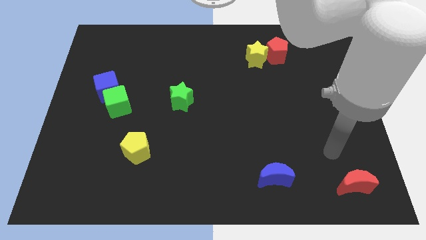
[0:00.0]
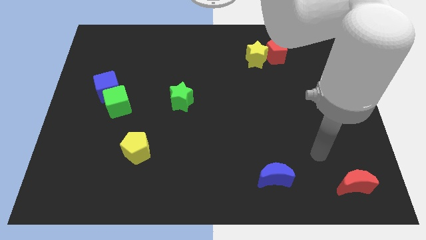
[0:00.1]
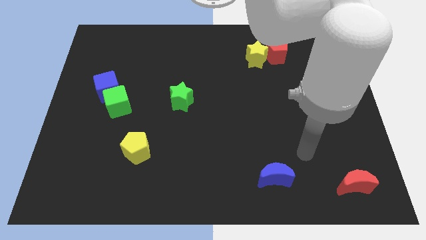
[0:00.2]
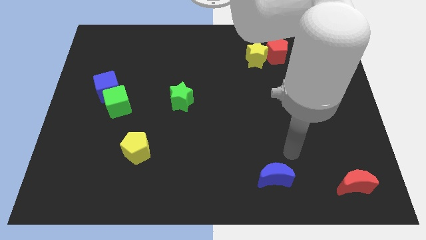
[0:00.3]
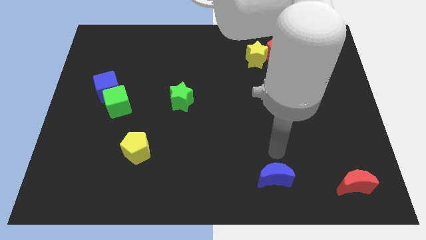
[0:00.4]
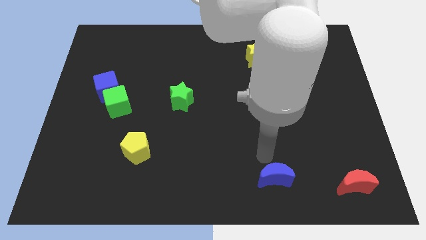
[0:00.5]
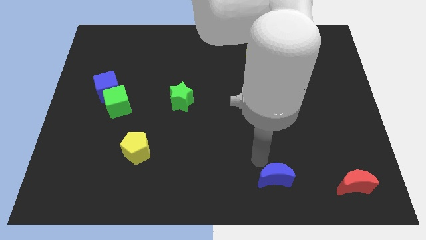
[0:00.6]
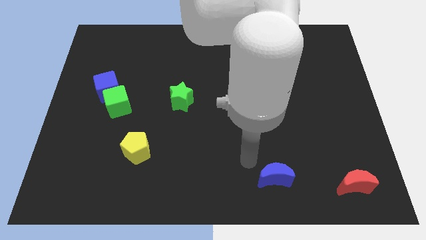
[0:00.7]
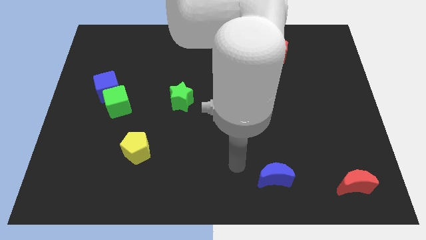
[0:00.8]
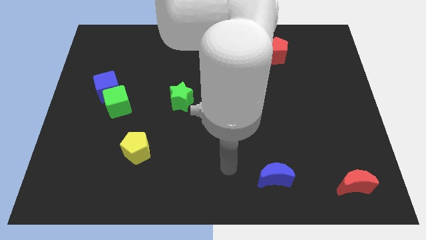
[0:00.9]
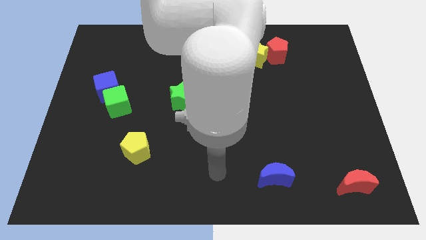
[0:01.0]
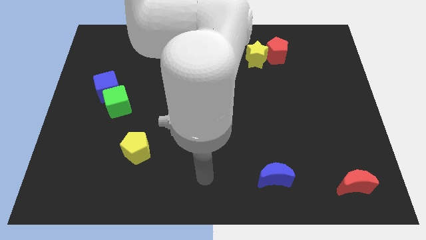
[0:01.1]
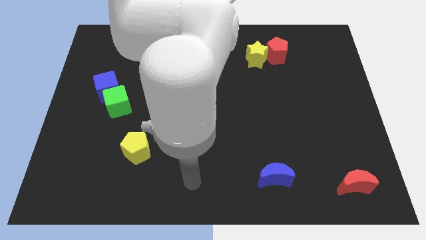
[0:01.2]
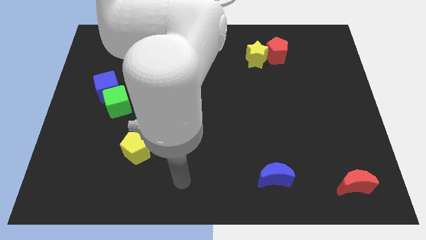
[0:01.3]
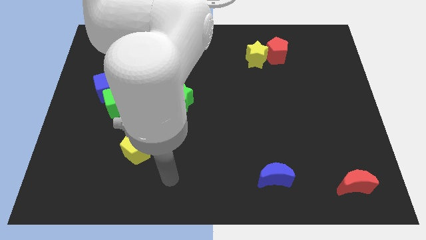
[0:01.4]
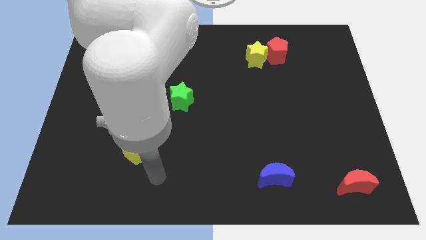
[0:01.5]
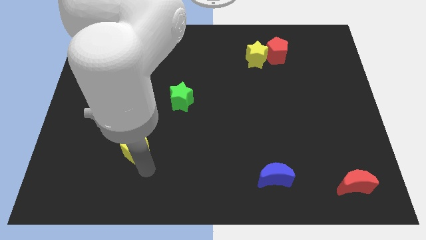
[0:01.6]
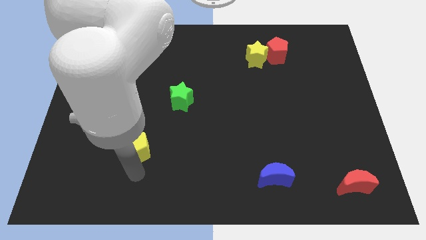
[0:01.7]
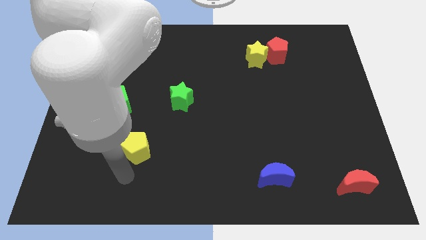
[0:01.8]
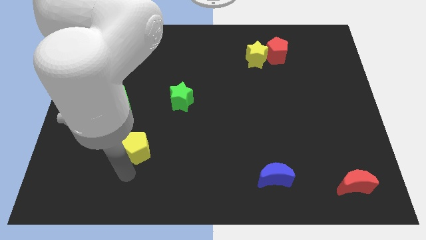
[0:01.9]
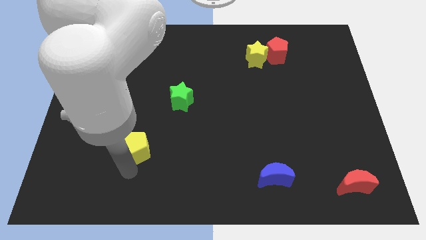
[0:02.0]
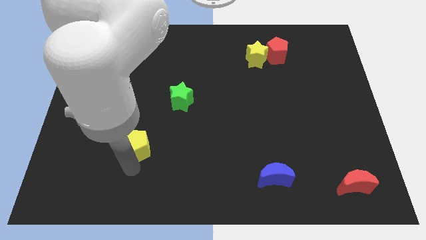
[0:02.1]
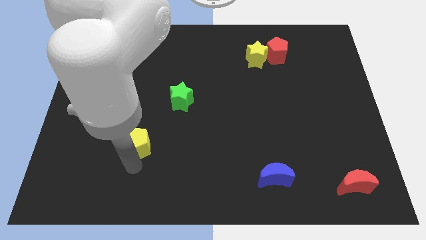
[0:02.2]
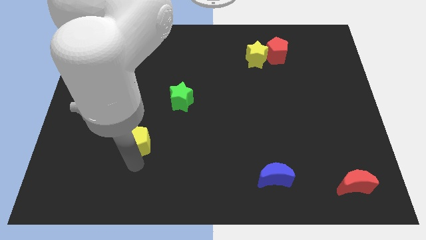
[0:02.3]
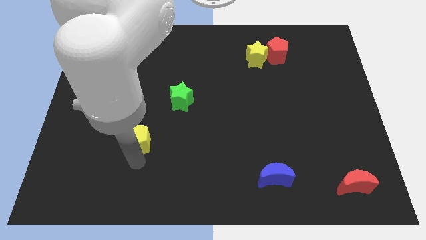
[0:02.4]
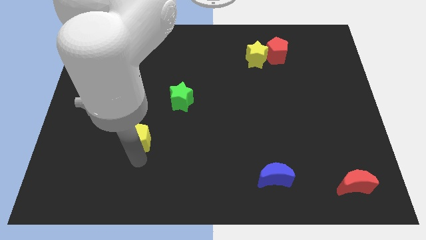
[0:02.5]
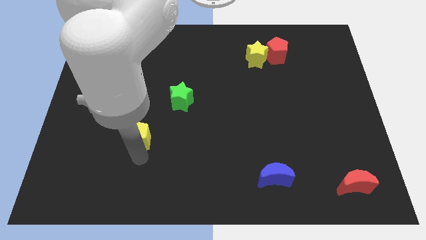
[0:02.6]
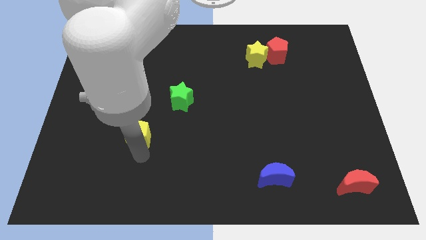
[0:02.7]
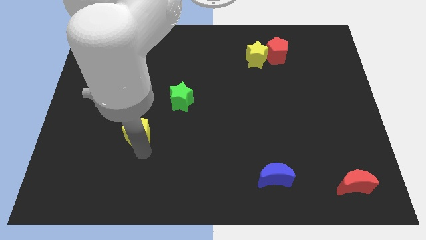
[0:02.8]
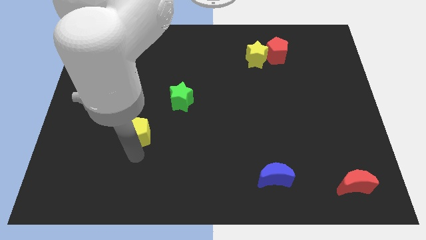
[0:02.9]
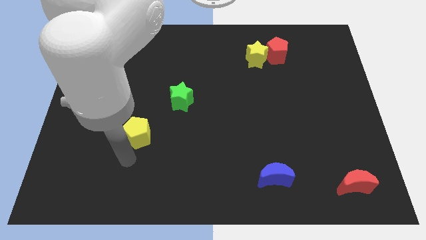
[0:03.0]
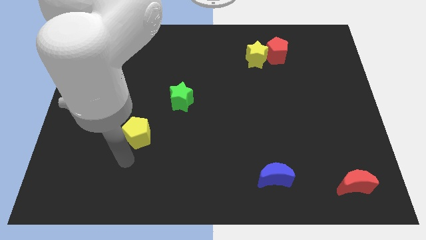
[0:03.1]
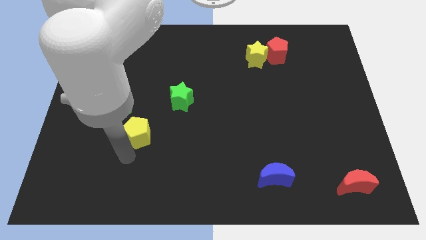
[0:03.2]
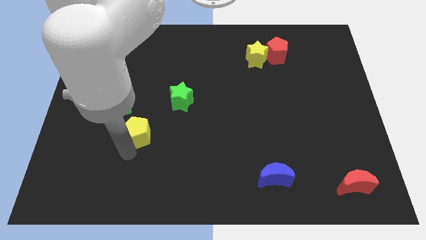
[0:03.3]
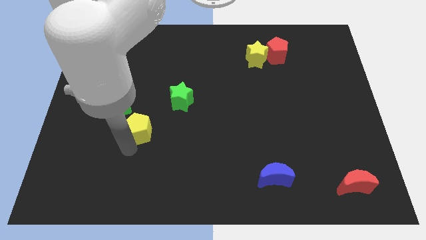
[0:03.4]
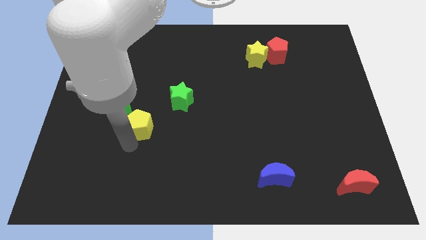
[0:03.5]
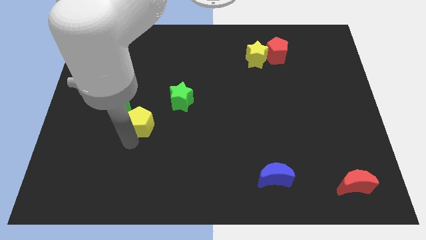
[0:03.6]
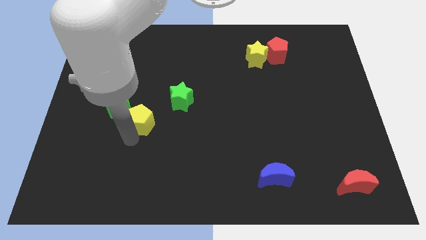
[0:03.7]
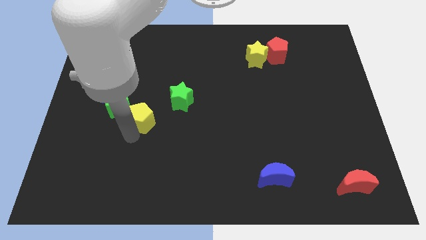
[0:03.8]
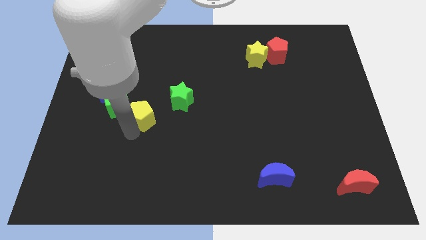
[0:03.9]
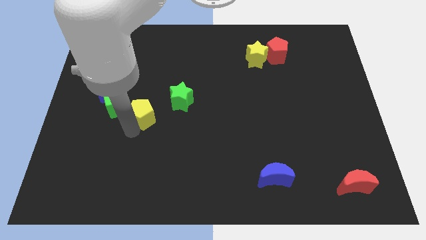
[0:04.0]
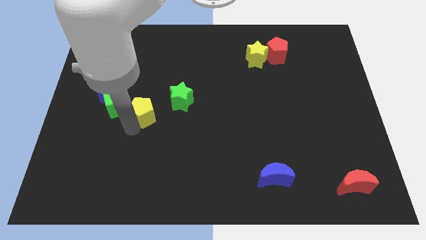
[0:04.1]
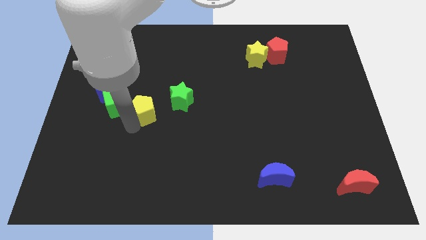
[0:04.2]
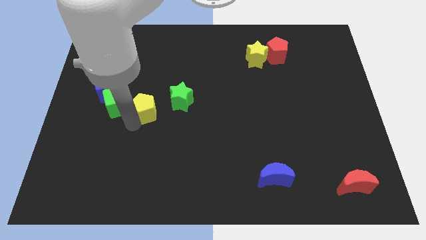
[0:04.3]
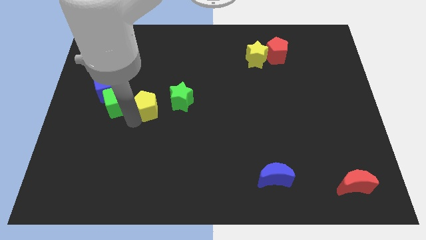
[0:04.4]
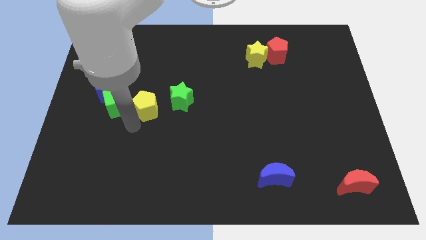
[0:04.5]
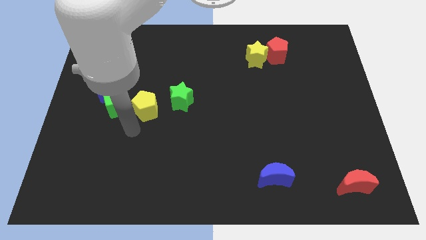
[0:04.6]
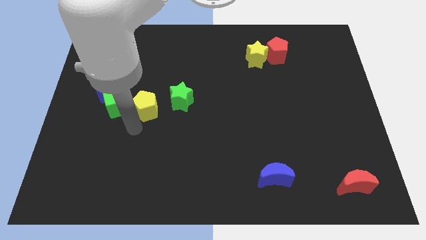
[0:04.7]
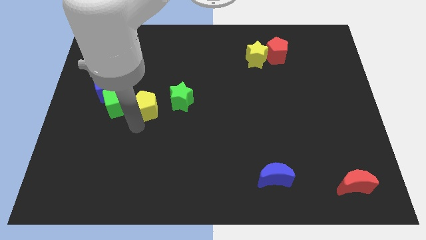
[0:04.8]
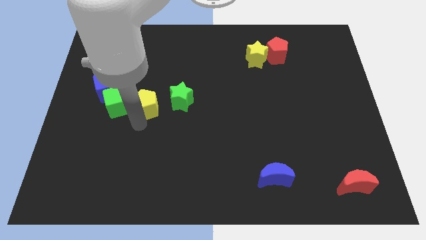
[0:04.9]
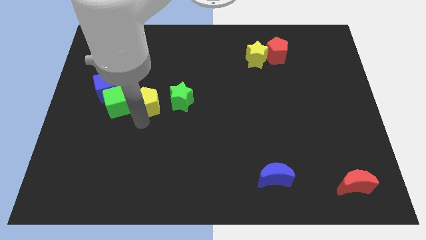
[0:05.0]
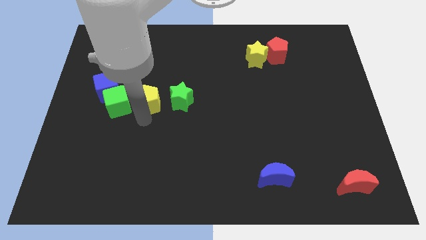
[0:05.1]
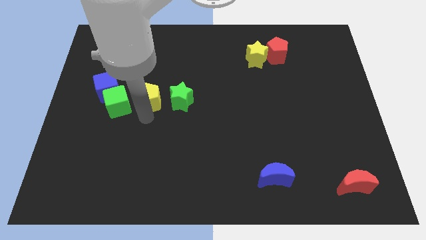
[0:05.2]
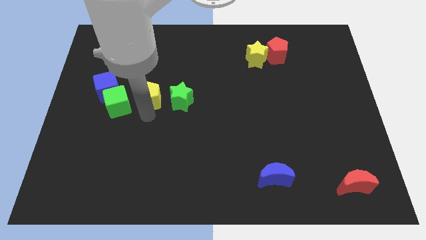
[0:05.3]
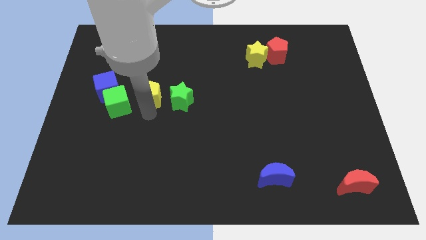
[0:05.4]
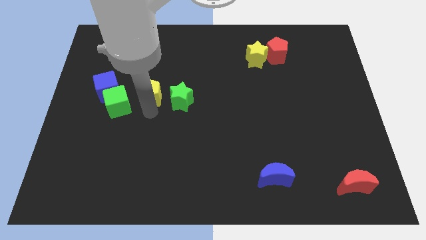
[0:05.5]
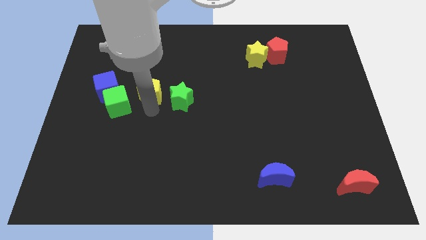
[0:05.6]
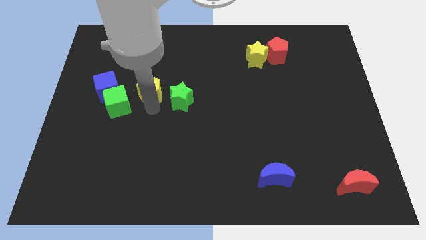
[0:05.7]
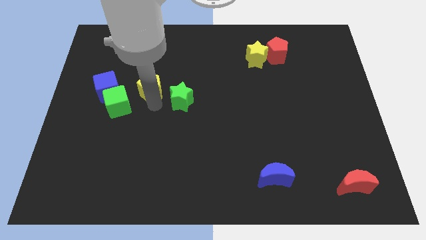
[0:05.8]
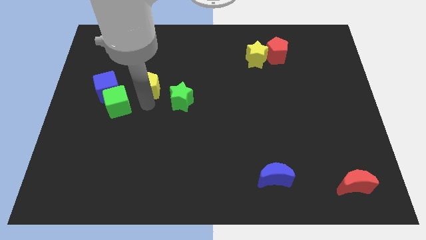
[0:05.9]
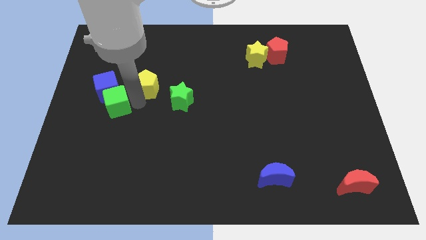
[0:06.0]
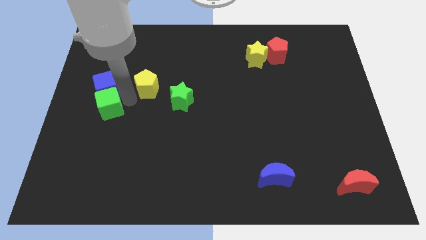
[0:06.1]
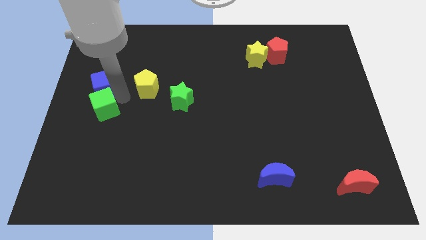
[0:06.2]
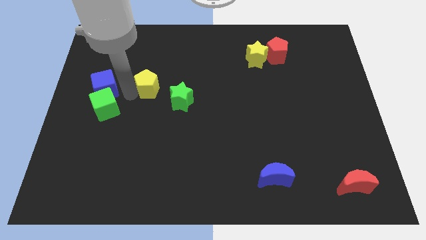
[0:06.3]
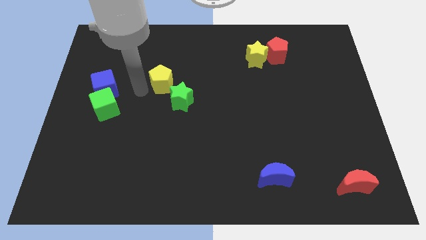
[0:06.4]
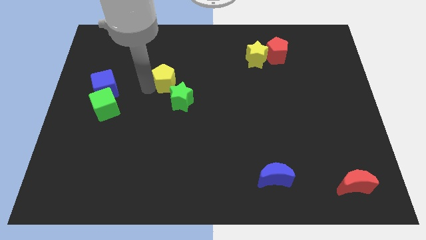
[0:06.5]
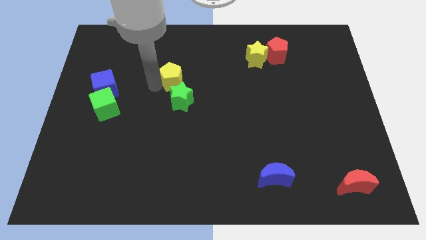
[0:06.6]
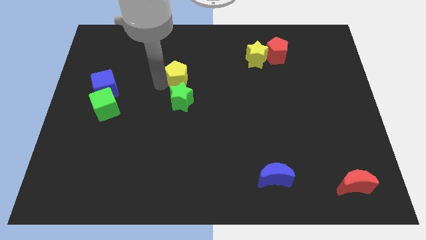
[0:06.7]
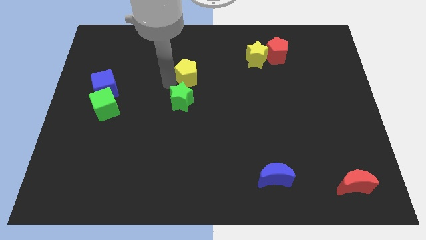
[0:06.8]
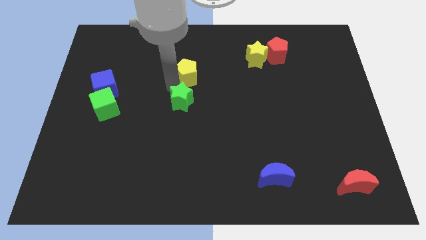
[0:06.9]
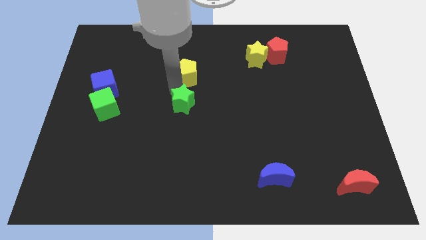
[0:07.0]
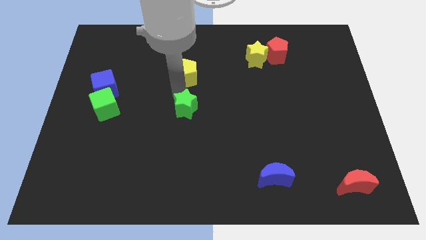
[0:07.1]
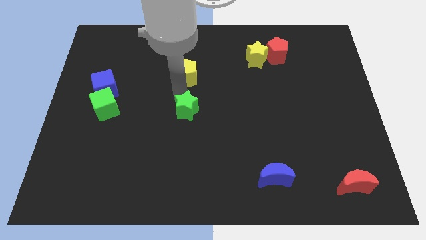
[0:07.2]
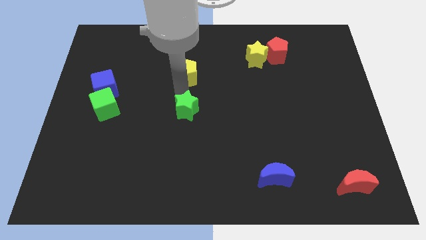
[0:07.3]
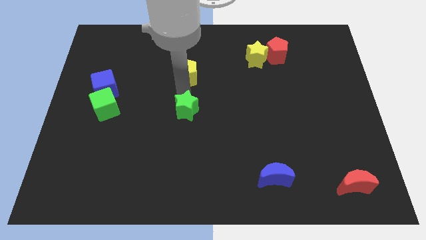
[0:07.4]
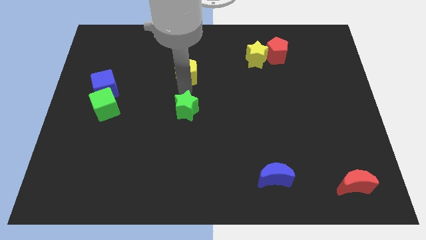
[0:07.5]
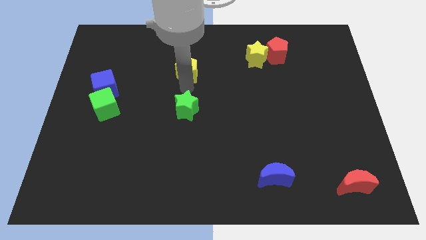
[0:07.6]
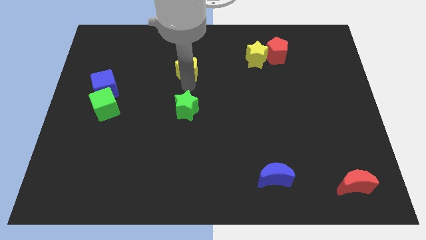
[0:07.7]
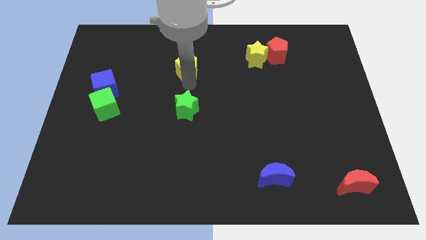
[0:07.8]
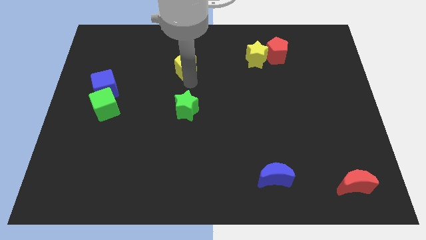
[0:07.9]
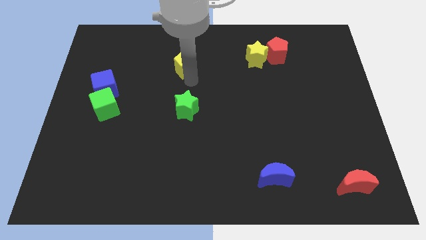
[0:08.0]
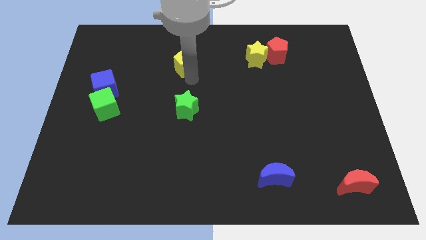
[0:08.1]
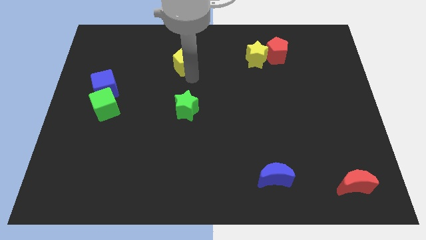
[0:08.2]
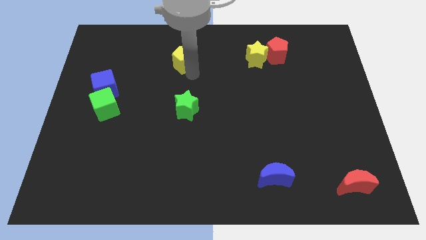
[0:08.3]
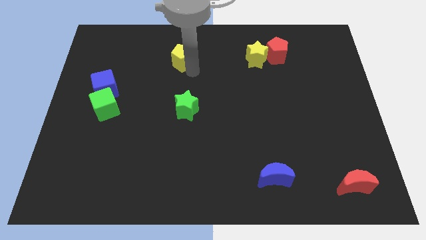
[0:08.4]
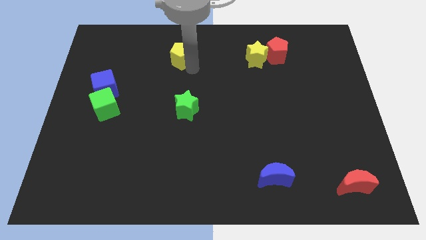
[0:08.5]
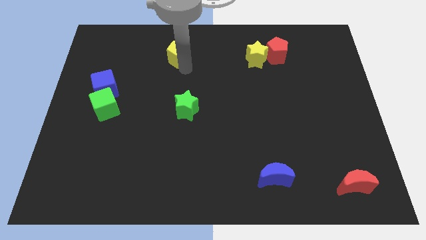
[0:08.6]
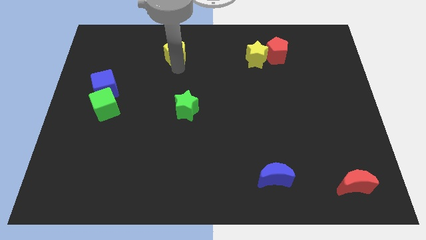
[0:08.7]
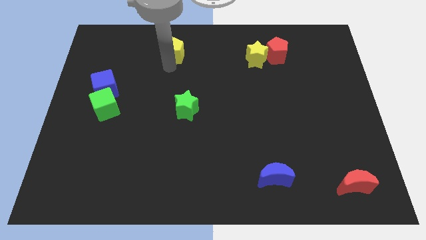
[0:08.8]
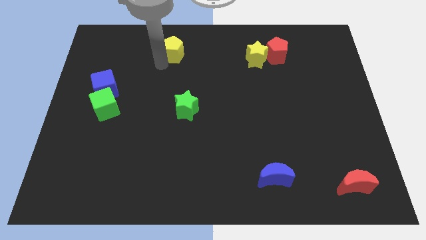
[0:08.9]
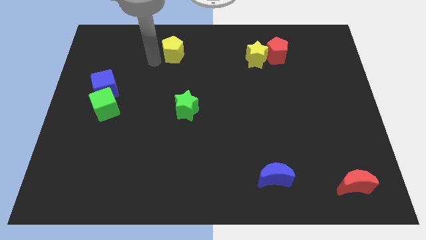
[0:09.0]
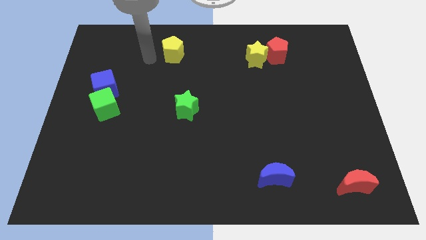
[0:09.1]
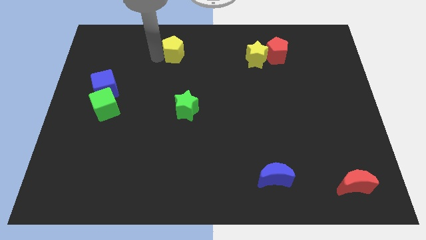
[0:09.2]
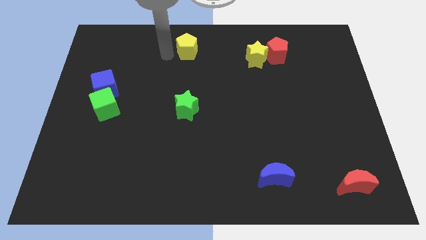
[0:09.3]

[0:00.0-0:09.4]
slide the yellow pentagon to the top side
